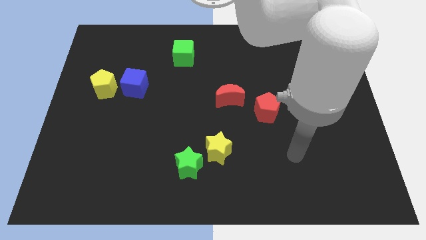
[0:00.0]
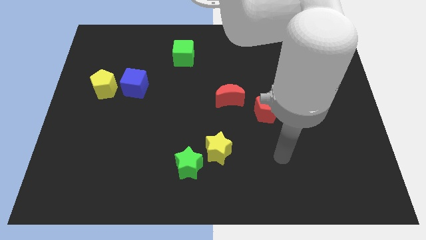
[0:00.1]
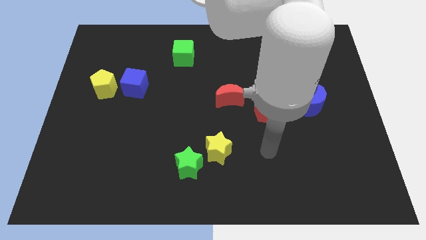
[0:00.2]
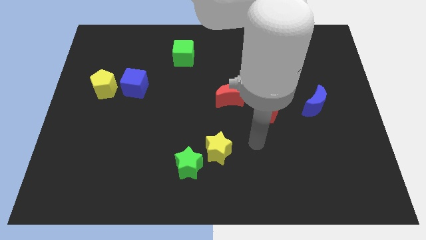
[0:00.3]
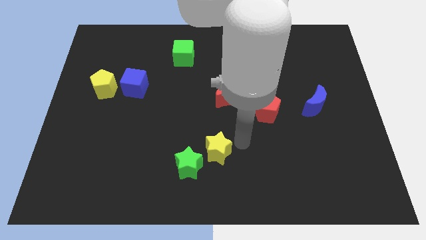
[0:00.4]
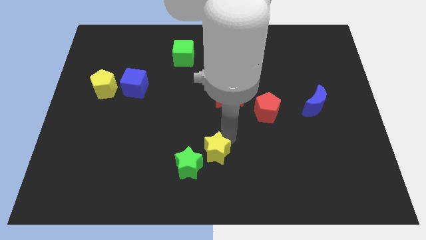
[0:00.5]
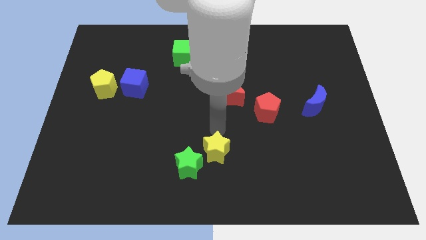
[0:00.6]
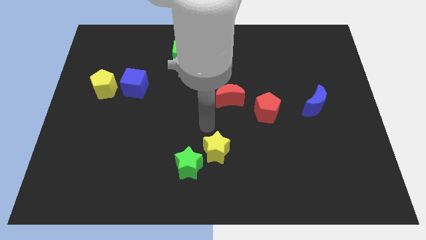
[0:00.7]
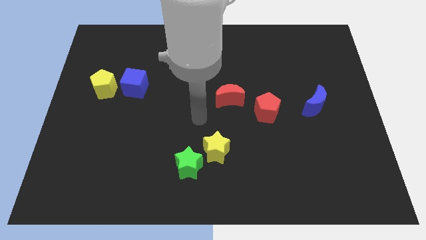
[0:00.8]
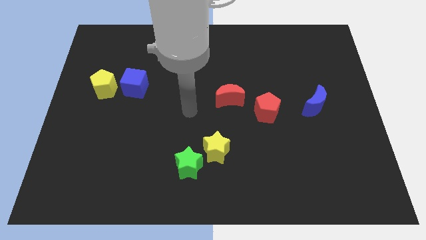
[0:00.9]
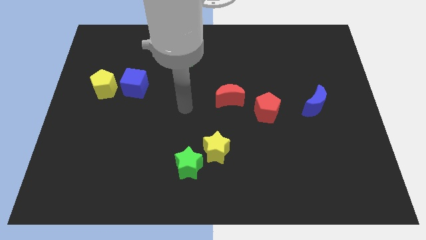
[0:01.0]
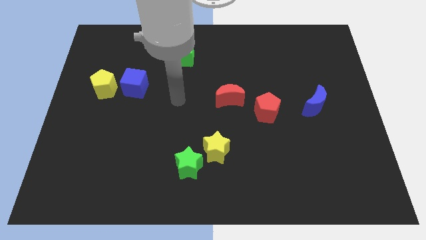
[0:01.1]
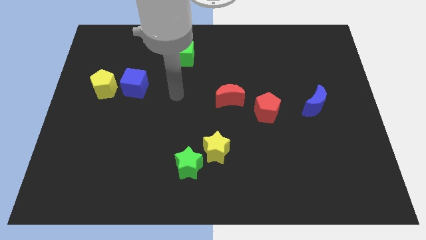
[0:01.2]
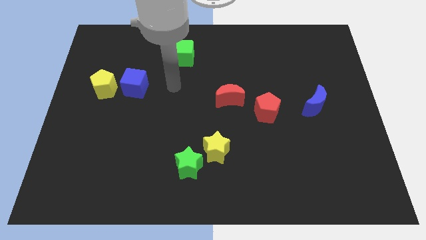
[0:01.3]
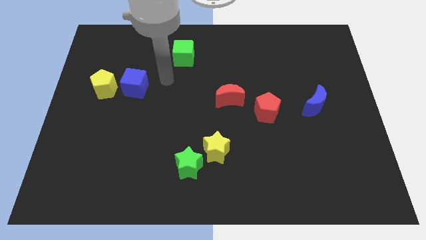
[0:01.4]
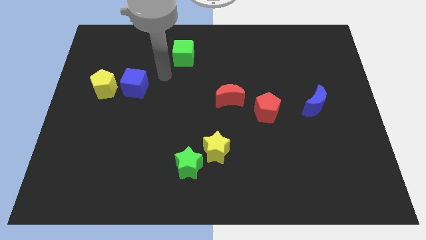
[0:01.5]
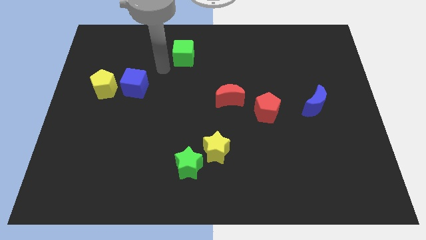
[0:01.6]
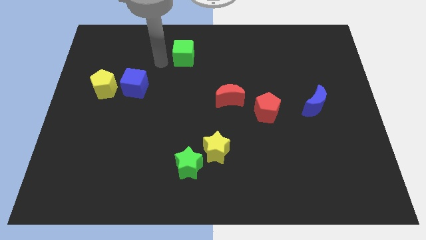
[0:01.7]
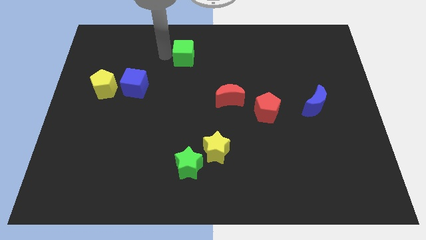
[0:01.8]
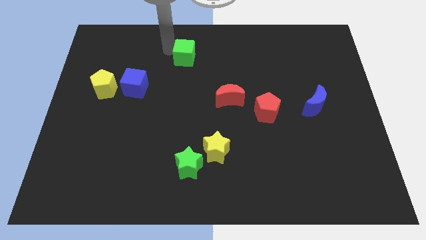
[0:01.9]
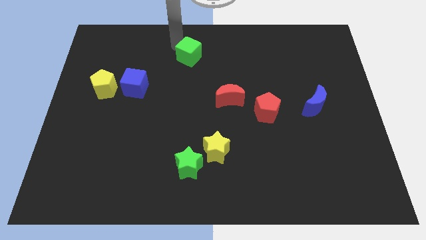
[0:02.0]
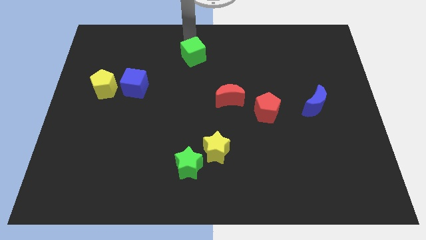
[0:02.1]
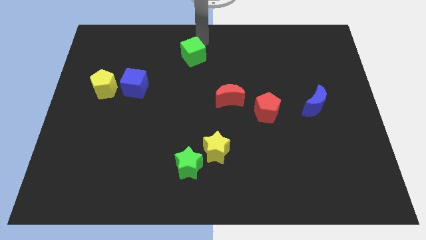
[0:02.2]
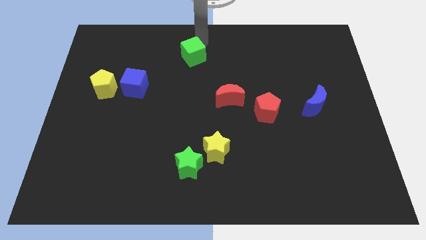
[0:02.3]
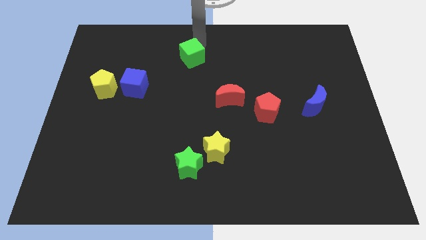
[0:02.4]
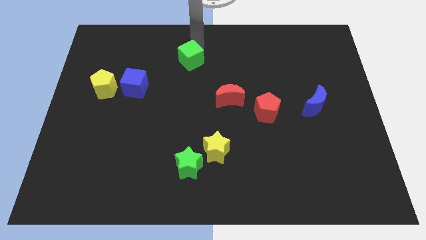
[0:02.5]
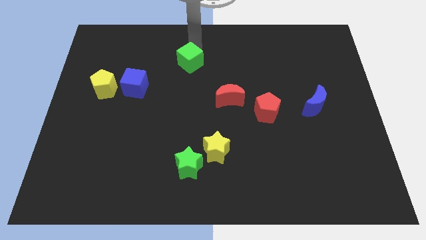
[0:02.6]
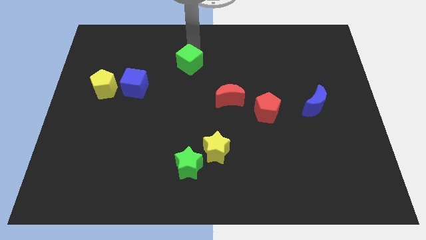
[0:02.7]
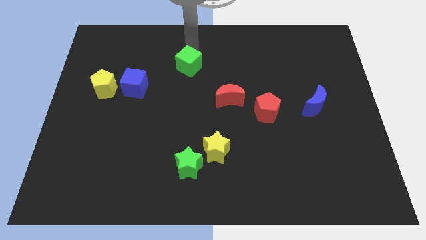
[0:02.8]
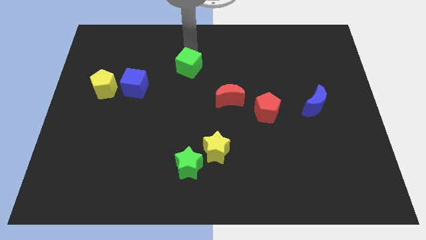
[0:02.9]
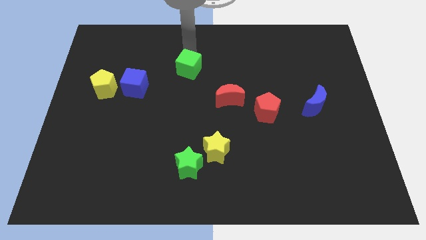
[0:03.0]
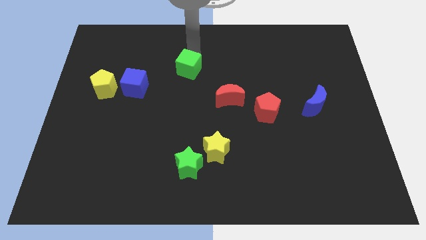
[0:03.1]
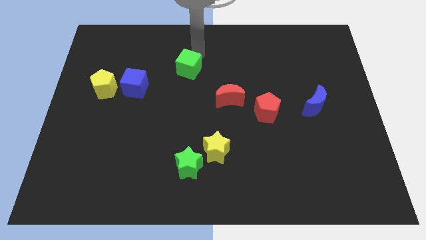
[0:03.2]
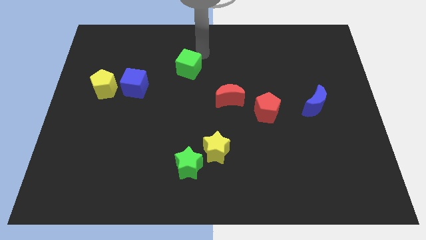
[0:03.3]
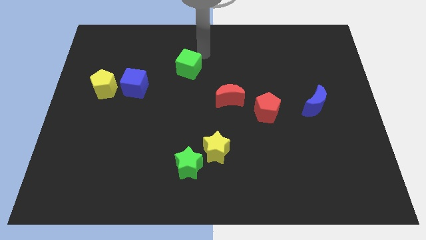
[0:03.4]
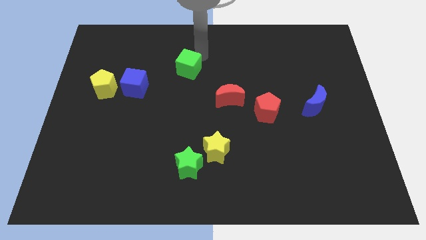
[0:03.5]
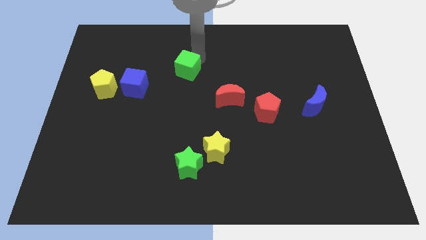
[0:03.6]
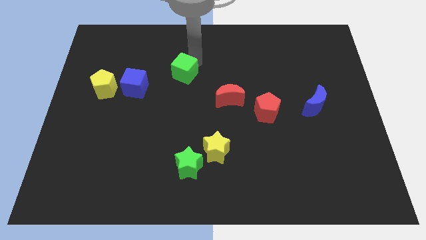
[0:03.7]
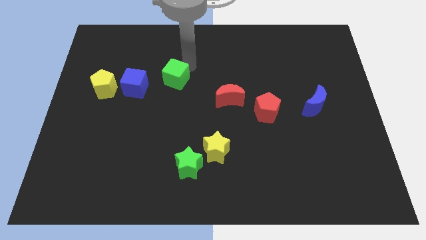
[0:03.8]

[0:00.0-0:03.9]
slightly slide the green cube downwards

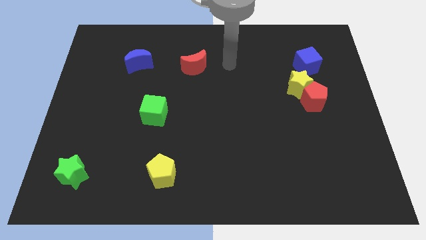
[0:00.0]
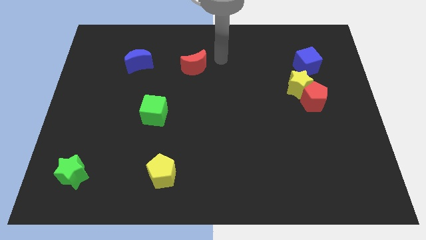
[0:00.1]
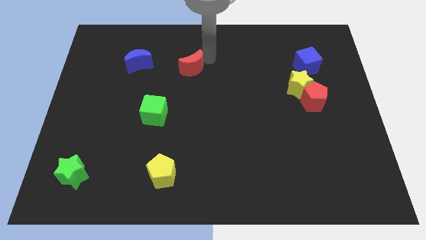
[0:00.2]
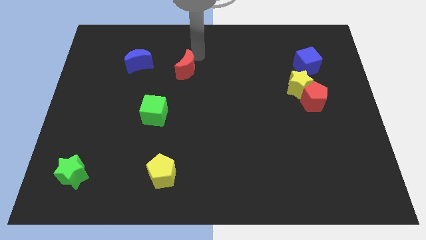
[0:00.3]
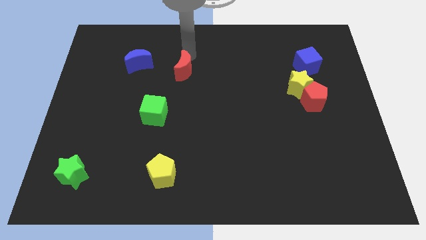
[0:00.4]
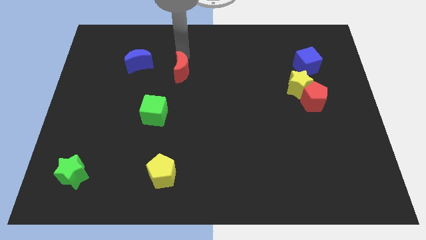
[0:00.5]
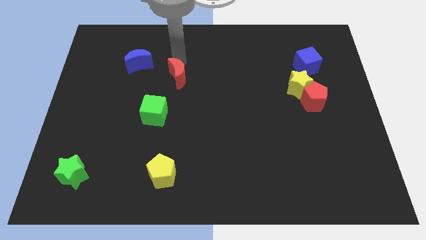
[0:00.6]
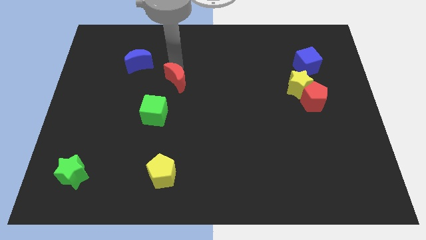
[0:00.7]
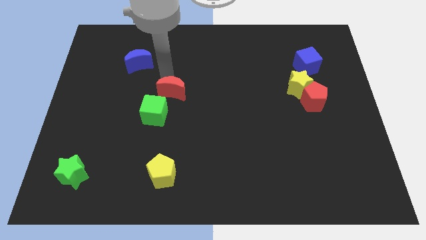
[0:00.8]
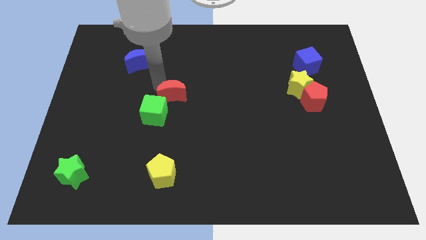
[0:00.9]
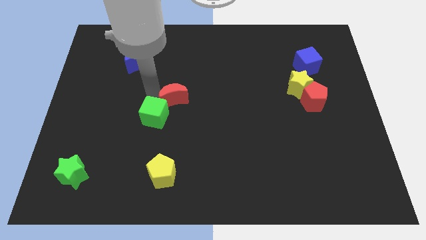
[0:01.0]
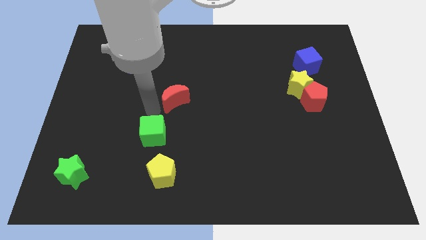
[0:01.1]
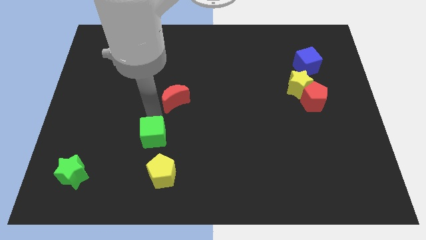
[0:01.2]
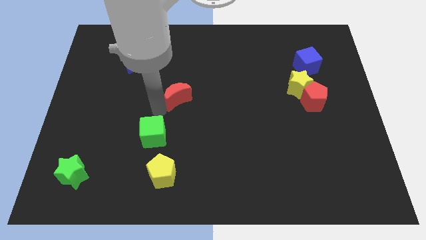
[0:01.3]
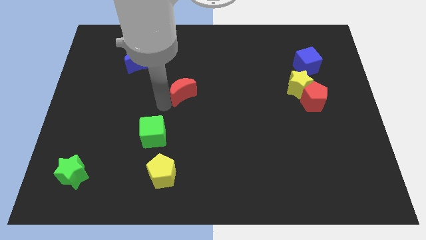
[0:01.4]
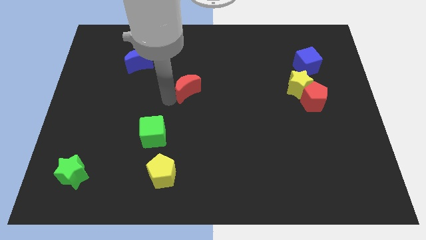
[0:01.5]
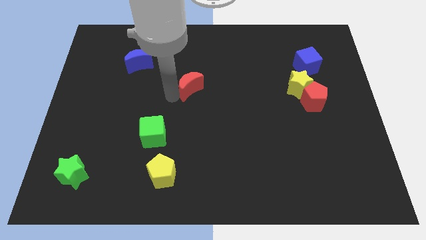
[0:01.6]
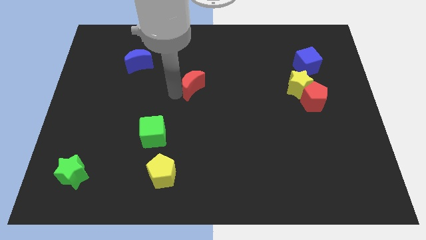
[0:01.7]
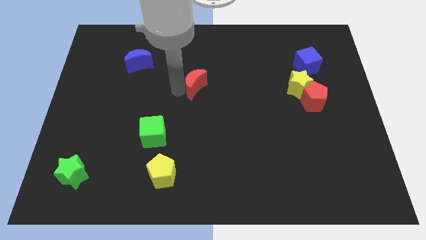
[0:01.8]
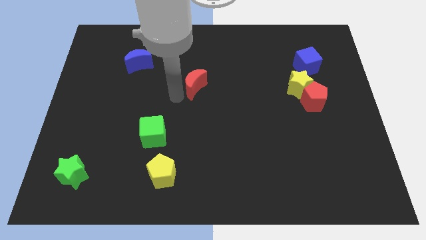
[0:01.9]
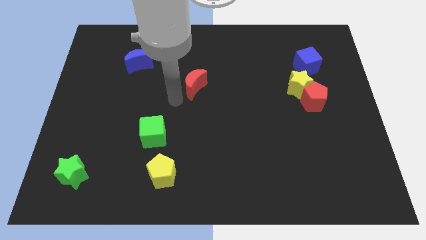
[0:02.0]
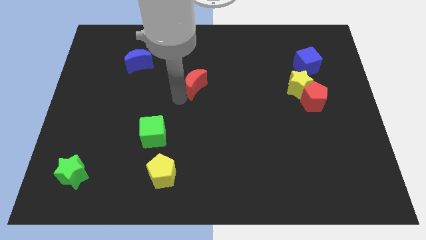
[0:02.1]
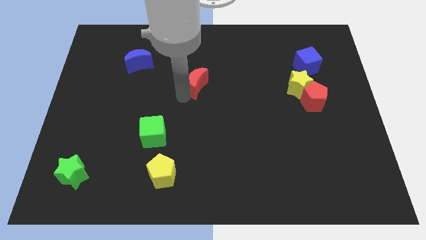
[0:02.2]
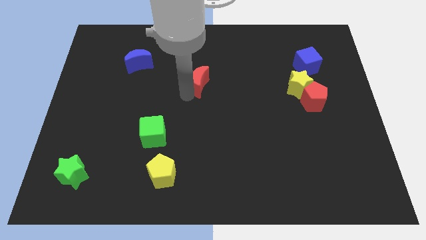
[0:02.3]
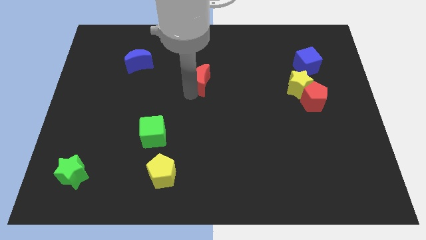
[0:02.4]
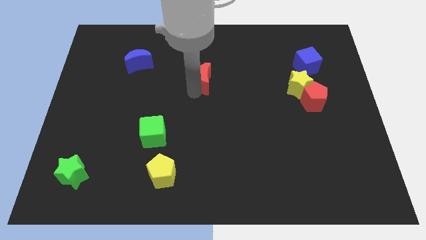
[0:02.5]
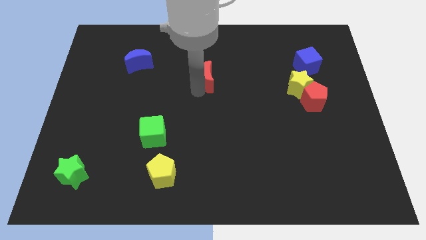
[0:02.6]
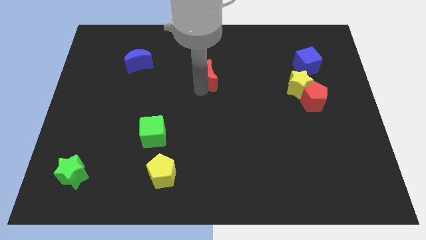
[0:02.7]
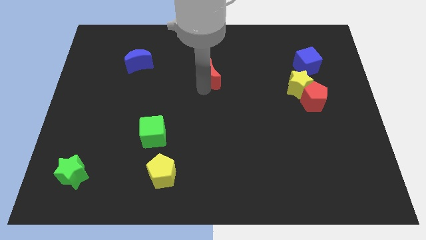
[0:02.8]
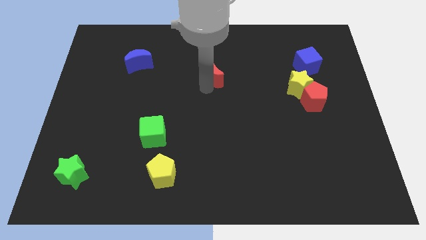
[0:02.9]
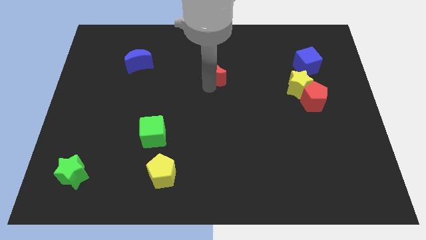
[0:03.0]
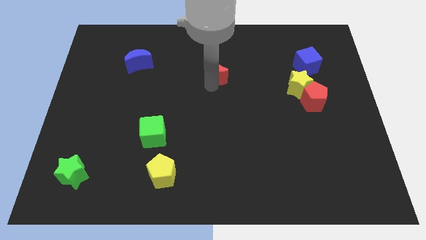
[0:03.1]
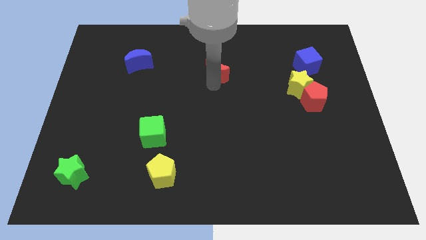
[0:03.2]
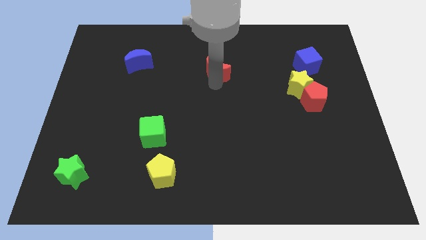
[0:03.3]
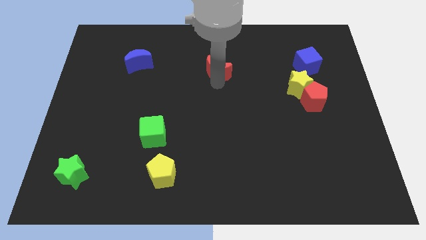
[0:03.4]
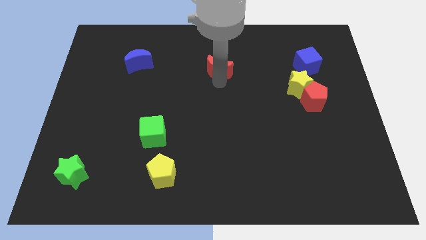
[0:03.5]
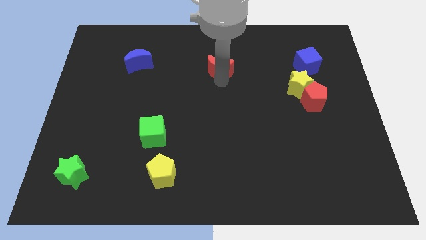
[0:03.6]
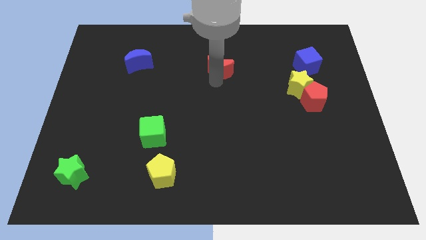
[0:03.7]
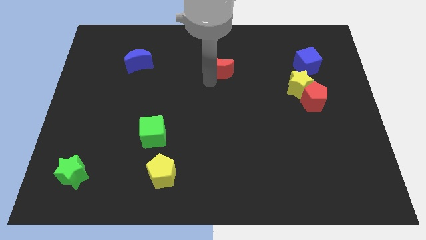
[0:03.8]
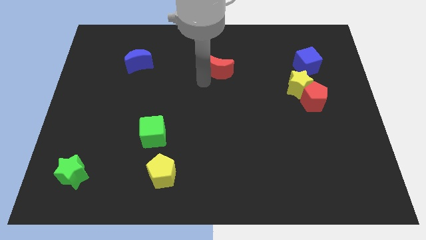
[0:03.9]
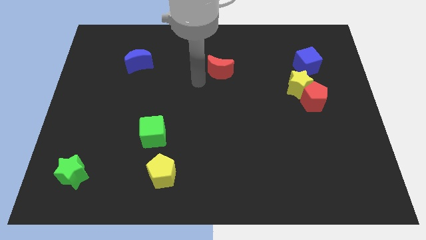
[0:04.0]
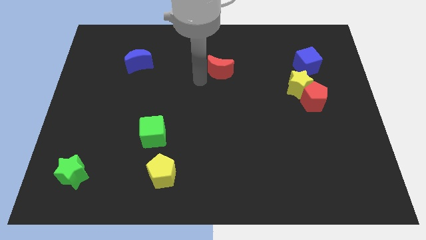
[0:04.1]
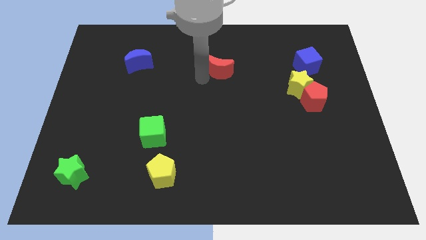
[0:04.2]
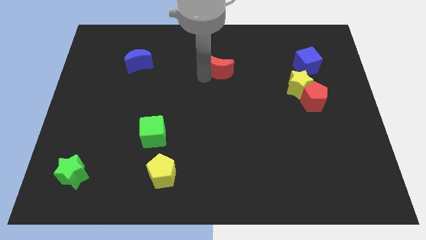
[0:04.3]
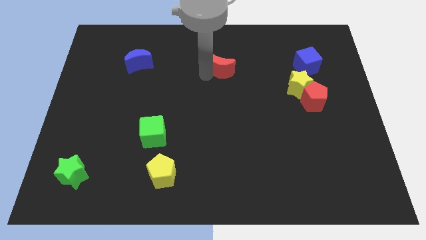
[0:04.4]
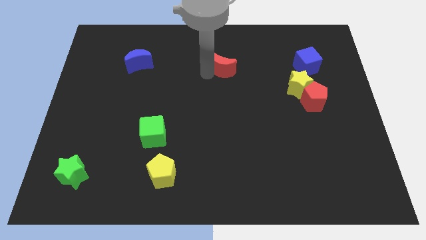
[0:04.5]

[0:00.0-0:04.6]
push the red moon a little bit to the right
